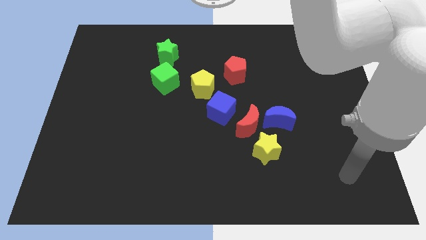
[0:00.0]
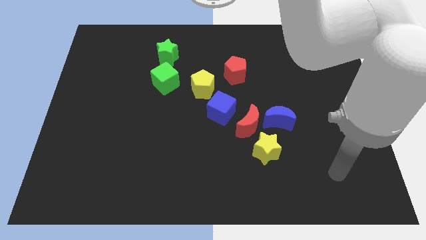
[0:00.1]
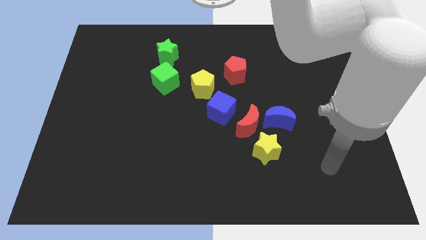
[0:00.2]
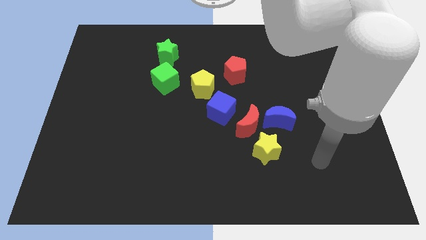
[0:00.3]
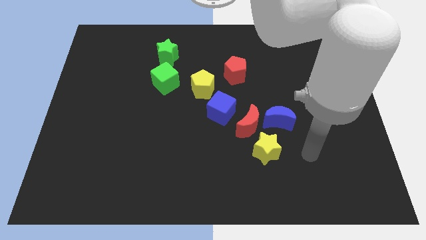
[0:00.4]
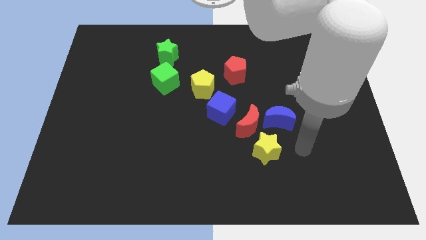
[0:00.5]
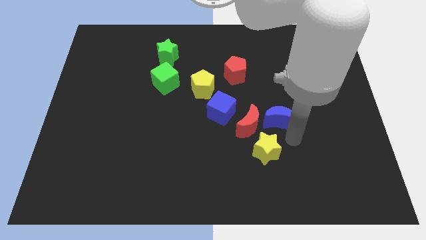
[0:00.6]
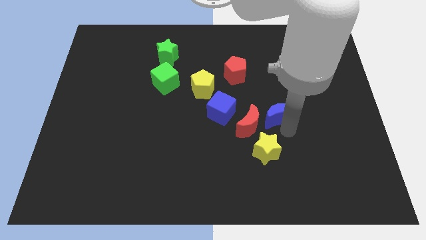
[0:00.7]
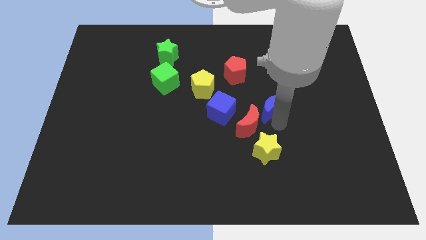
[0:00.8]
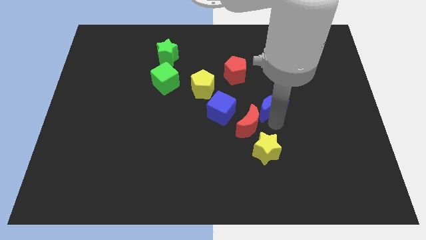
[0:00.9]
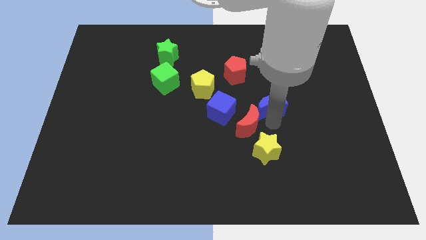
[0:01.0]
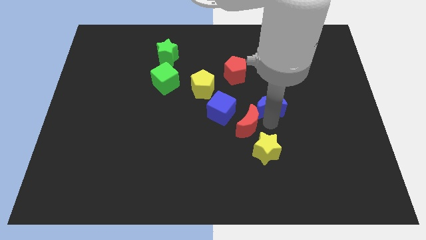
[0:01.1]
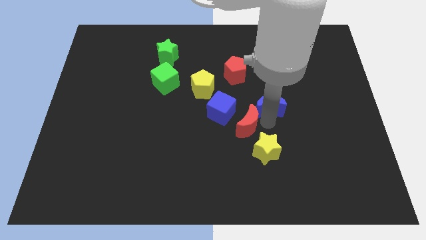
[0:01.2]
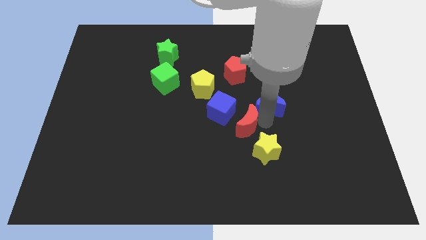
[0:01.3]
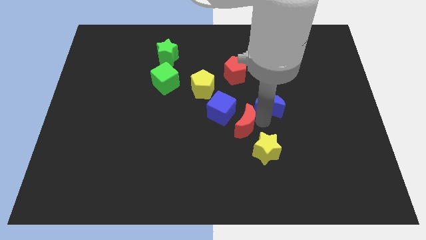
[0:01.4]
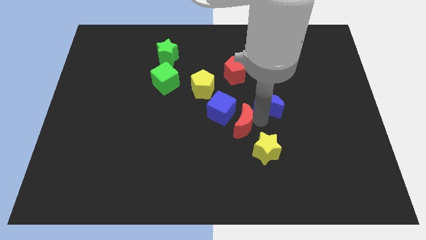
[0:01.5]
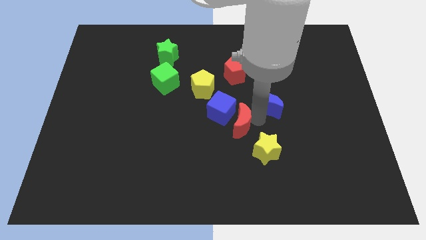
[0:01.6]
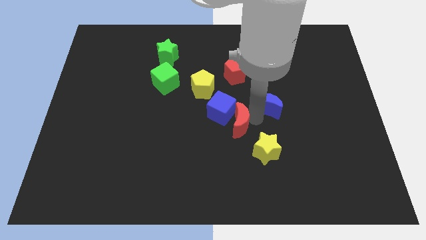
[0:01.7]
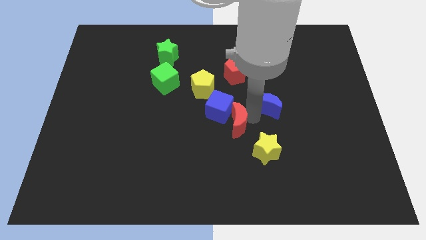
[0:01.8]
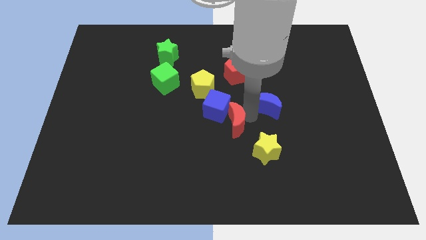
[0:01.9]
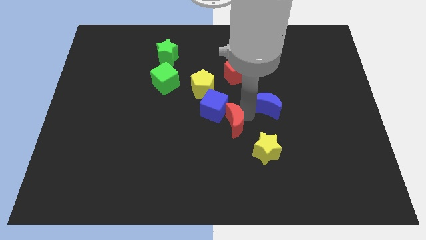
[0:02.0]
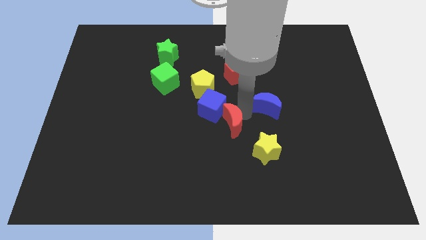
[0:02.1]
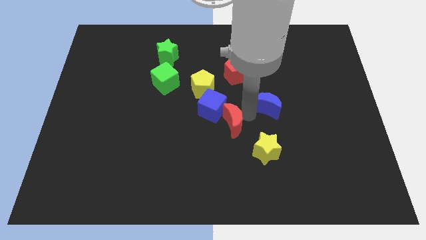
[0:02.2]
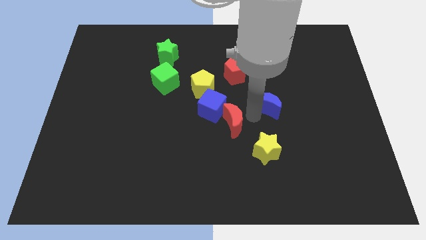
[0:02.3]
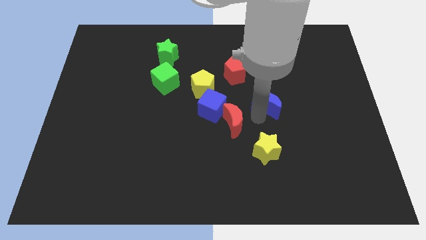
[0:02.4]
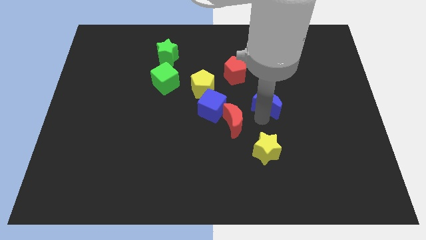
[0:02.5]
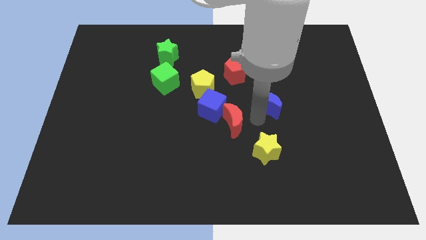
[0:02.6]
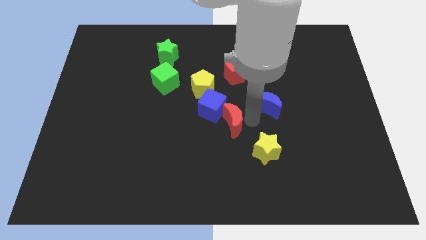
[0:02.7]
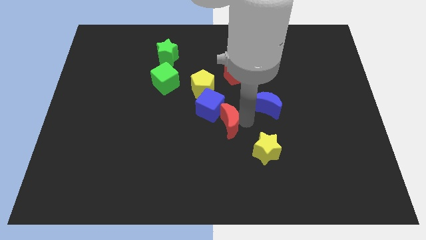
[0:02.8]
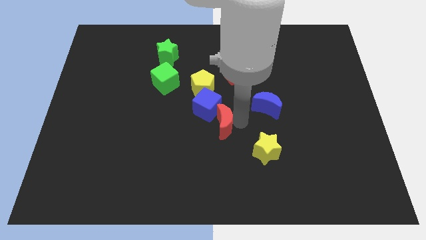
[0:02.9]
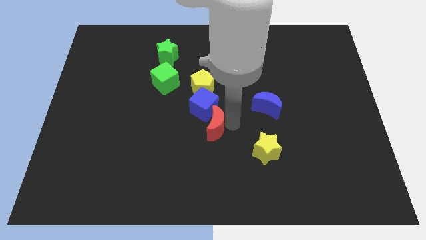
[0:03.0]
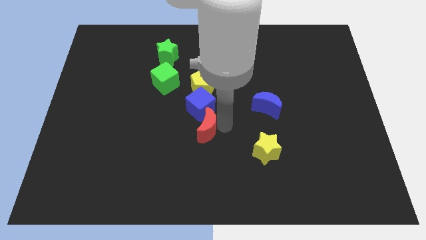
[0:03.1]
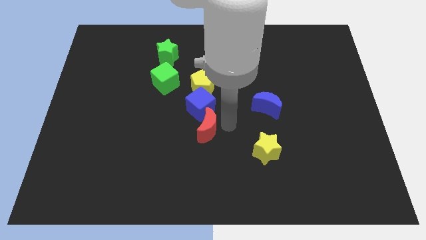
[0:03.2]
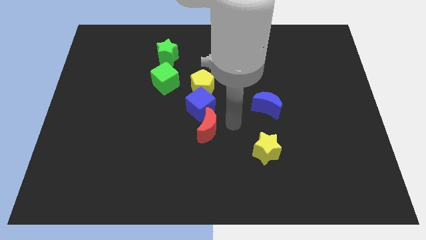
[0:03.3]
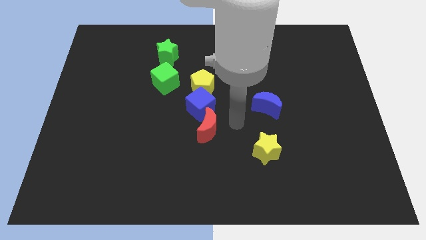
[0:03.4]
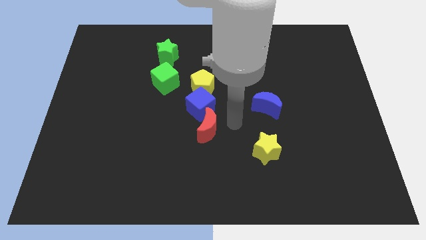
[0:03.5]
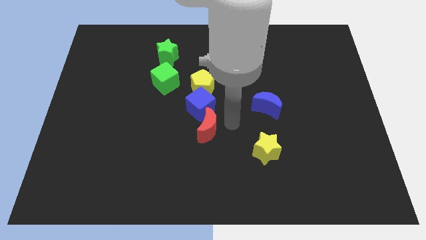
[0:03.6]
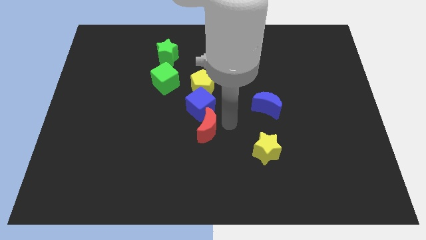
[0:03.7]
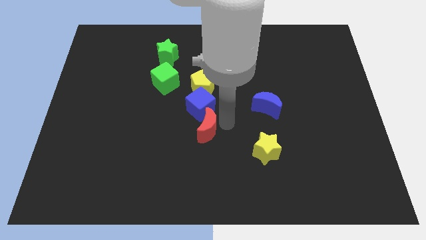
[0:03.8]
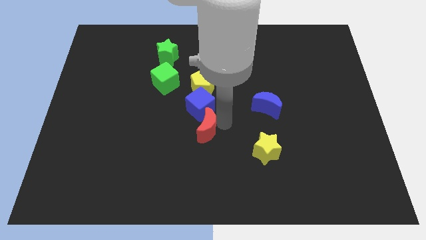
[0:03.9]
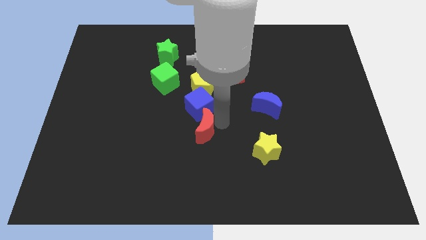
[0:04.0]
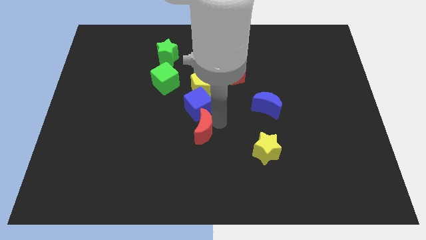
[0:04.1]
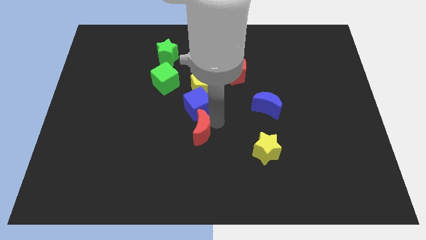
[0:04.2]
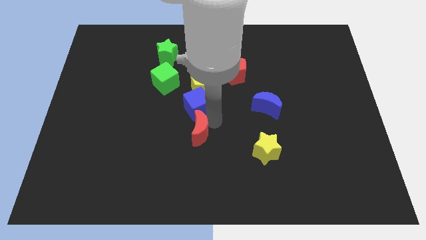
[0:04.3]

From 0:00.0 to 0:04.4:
pull the red moon apart from the group of blocks

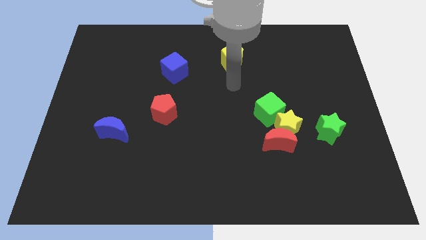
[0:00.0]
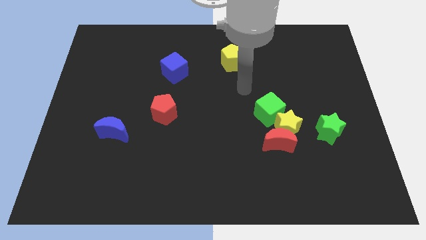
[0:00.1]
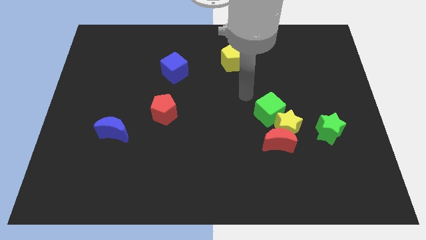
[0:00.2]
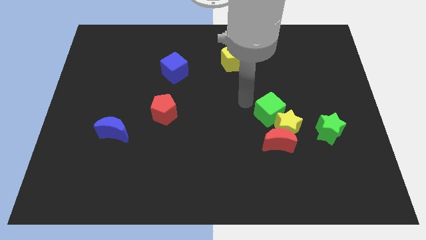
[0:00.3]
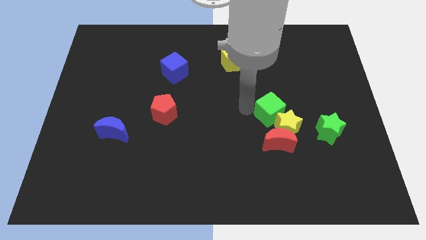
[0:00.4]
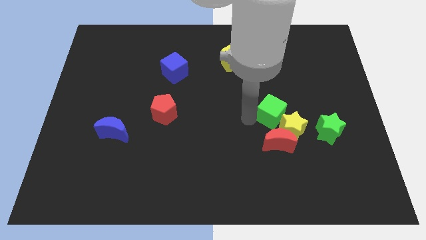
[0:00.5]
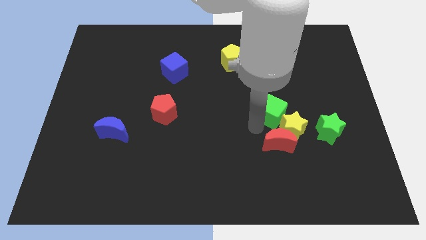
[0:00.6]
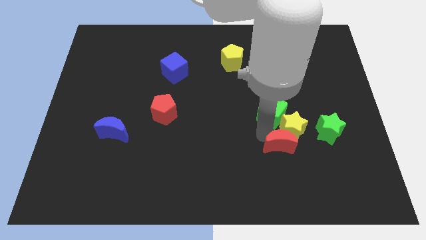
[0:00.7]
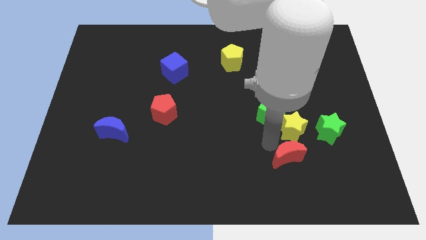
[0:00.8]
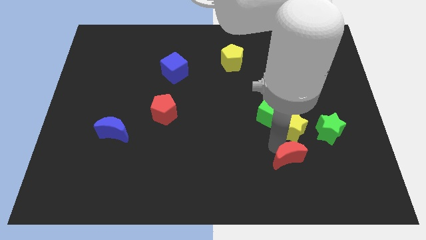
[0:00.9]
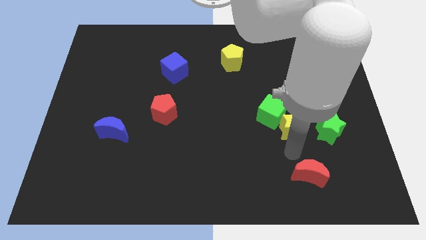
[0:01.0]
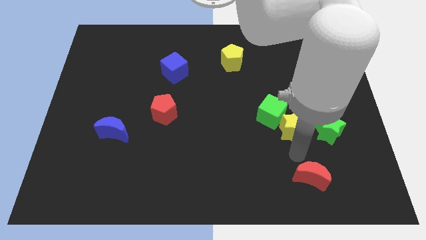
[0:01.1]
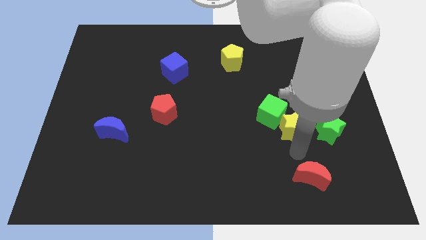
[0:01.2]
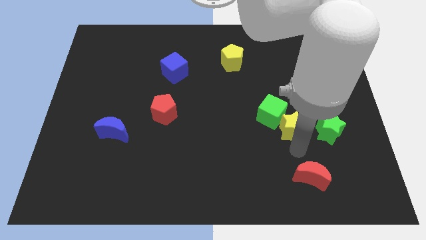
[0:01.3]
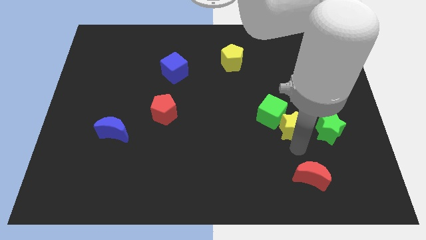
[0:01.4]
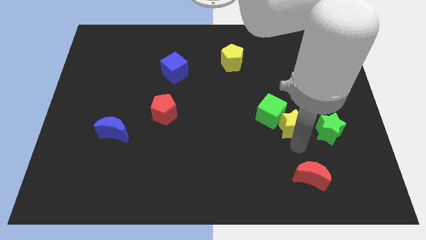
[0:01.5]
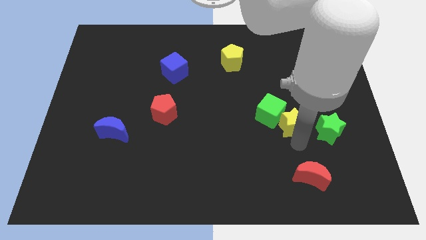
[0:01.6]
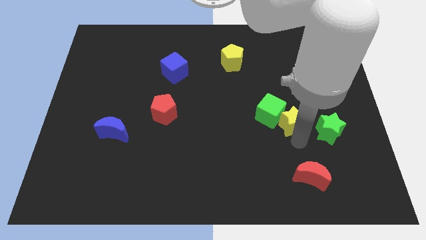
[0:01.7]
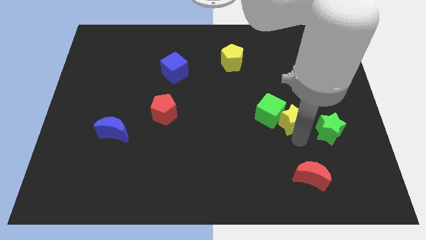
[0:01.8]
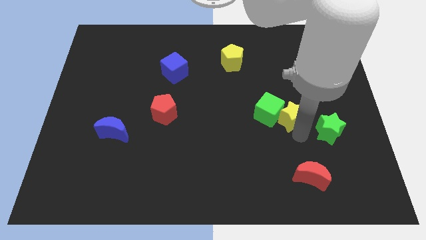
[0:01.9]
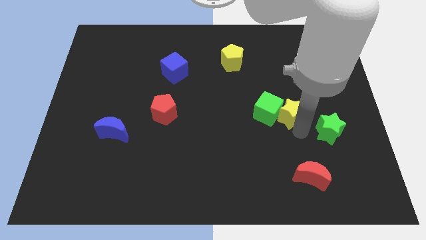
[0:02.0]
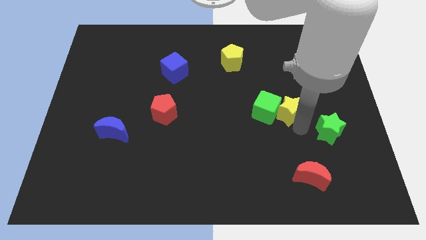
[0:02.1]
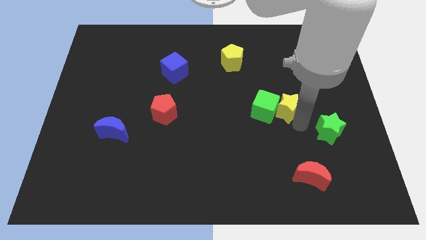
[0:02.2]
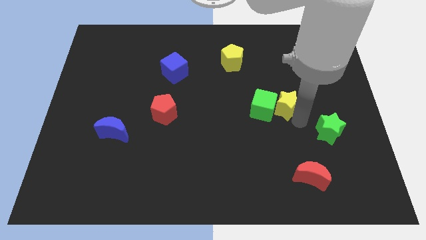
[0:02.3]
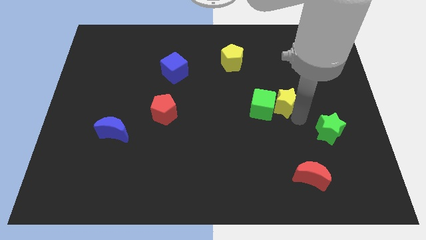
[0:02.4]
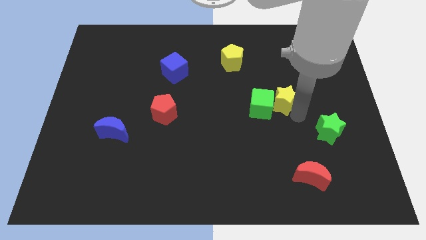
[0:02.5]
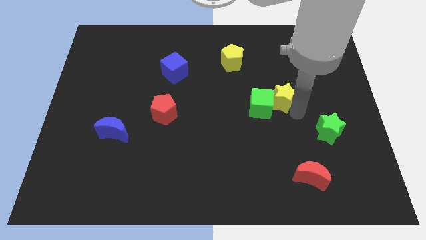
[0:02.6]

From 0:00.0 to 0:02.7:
separate the yellow star from the clump

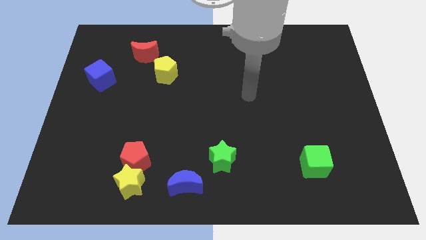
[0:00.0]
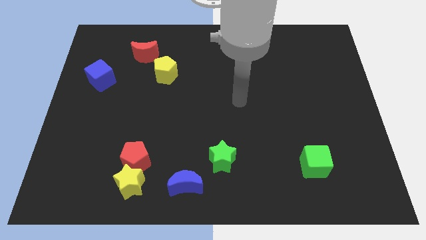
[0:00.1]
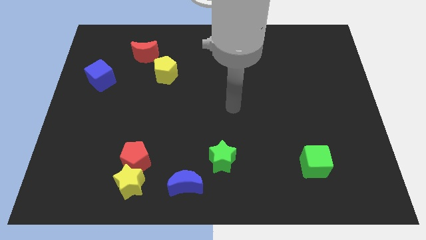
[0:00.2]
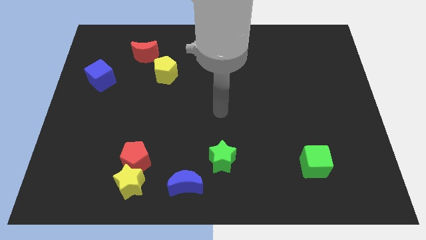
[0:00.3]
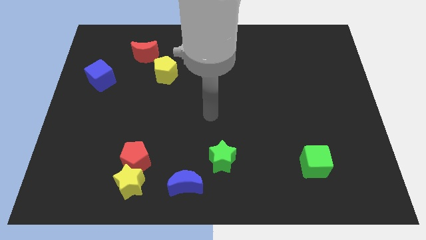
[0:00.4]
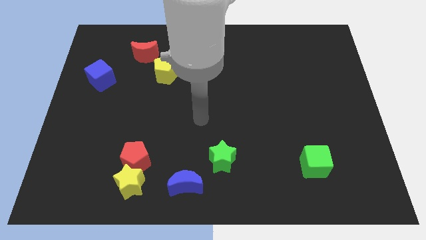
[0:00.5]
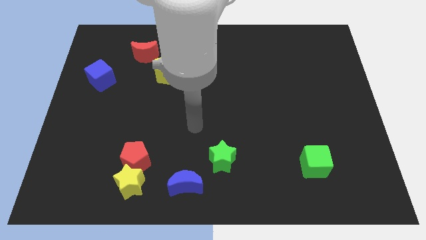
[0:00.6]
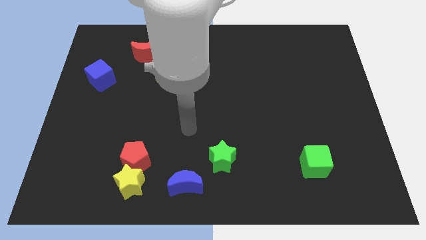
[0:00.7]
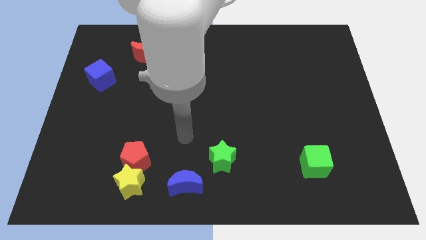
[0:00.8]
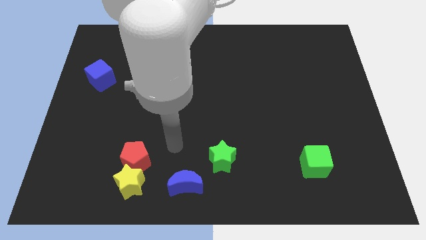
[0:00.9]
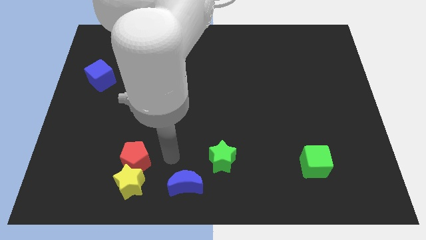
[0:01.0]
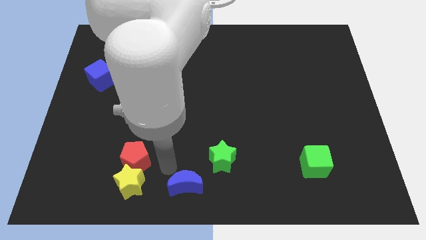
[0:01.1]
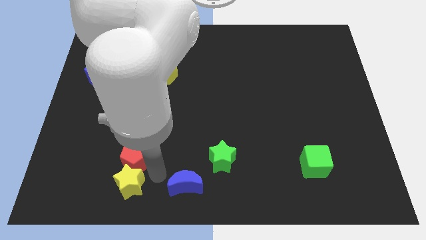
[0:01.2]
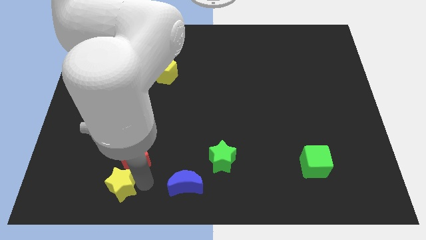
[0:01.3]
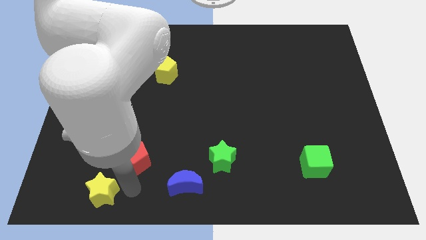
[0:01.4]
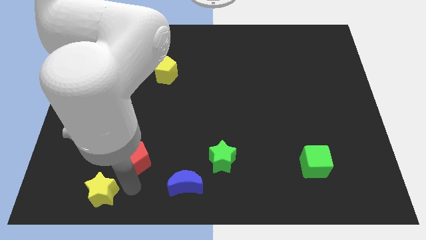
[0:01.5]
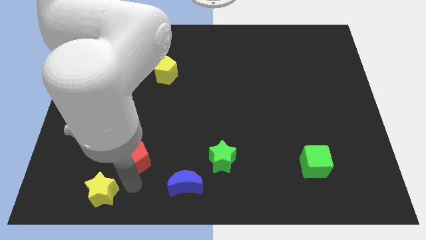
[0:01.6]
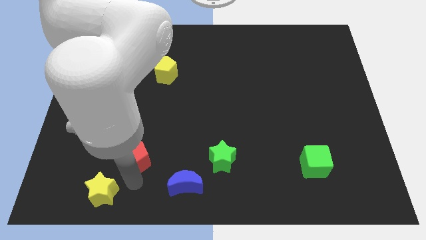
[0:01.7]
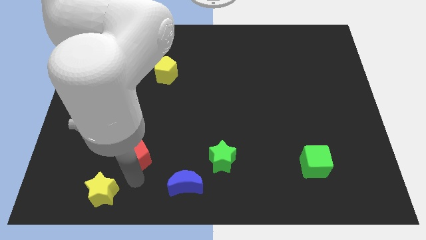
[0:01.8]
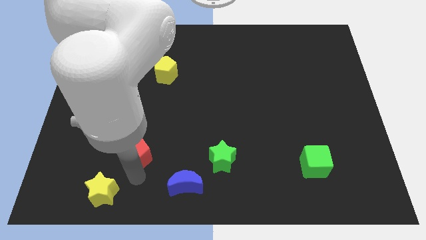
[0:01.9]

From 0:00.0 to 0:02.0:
pull the red pentagon apart from the yellow star

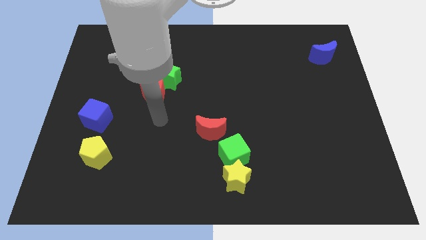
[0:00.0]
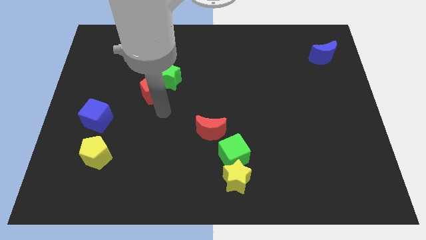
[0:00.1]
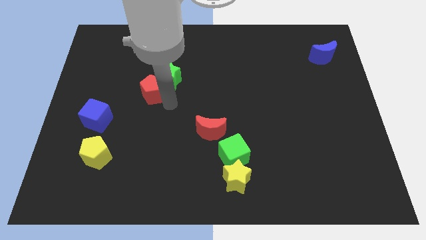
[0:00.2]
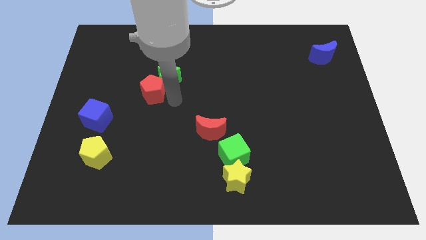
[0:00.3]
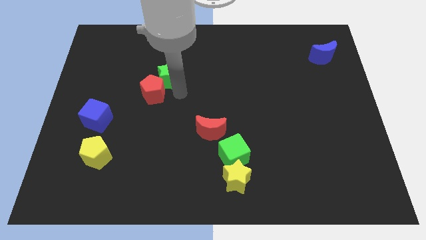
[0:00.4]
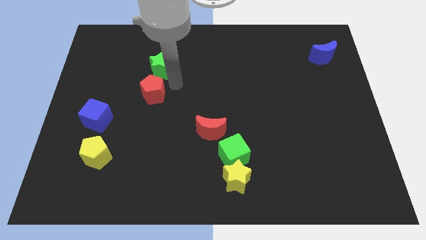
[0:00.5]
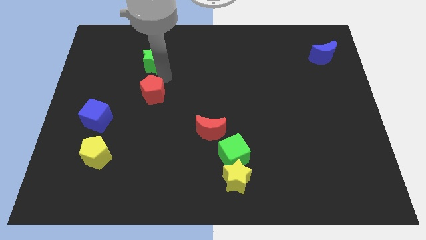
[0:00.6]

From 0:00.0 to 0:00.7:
separate the red pentagon from the green star
